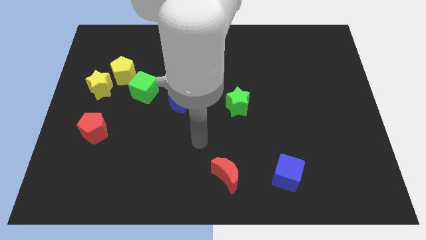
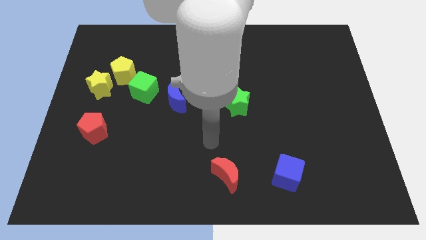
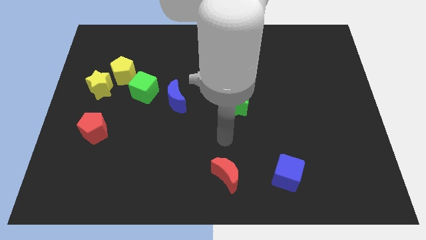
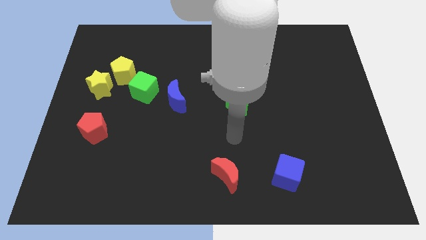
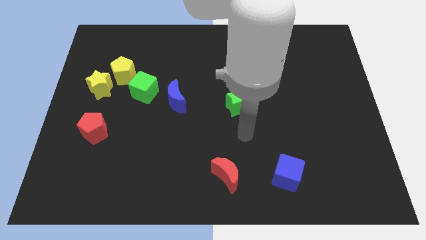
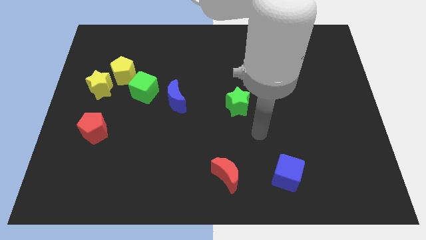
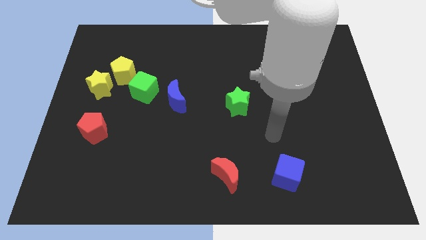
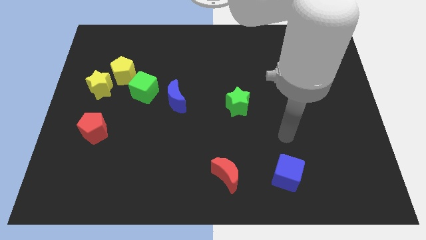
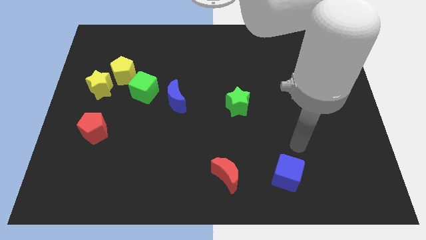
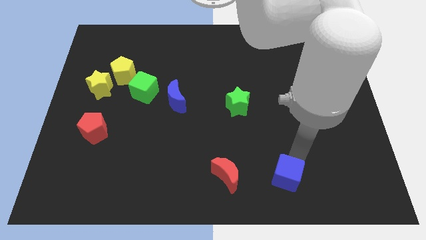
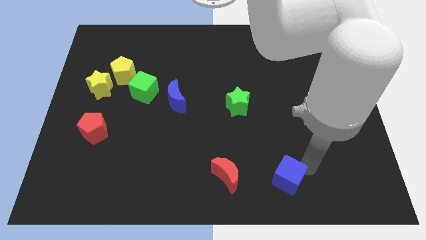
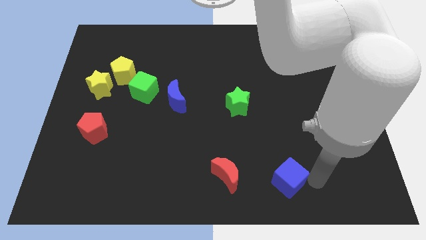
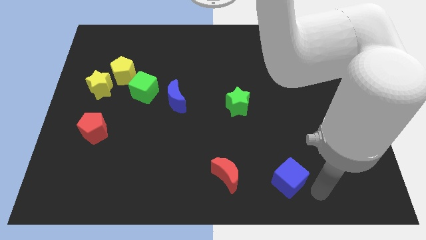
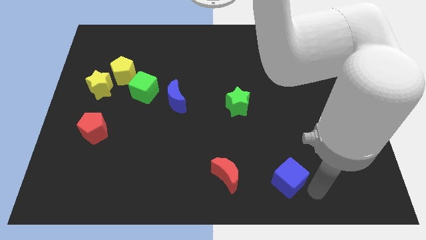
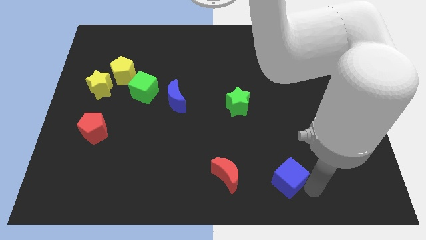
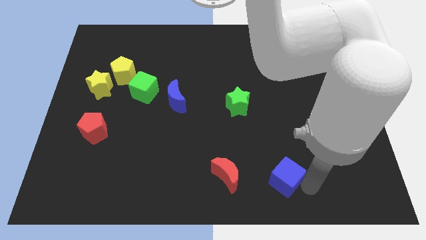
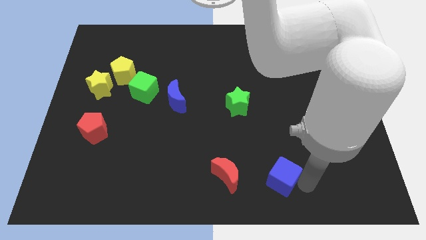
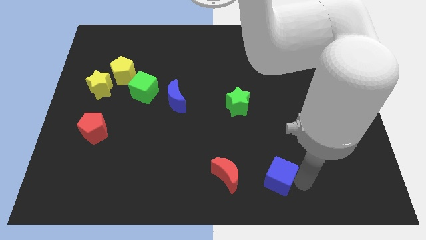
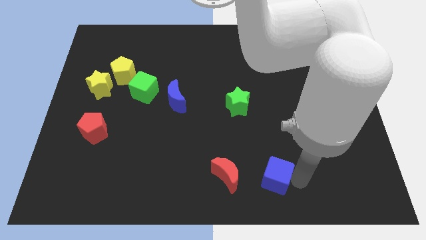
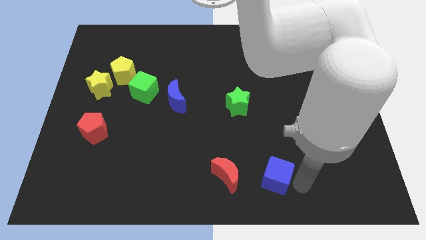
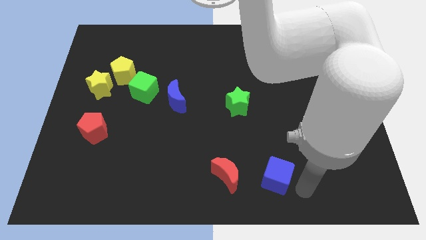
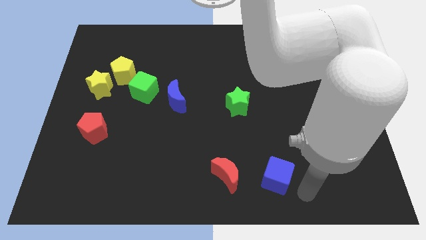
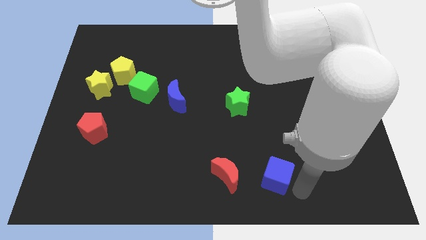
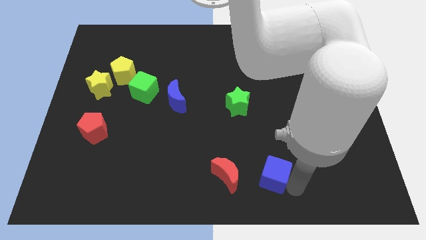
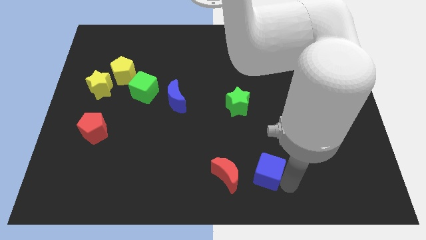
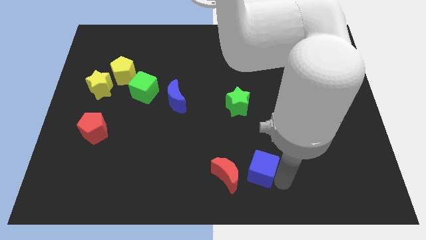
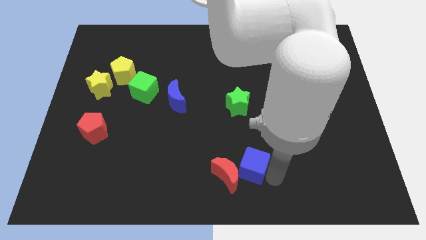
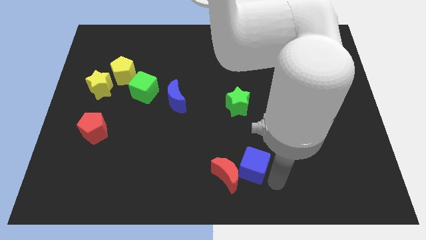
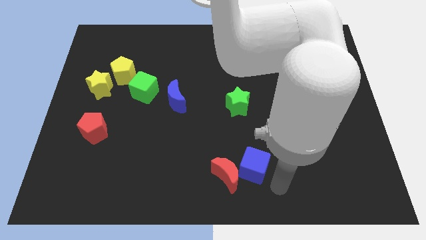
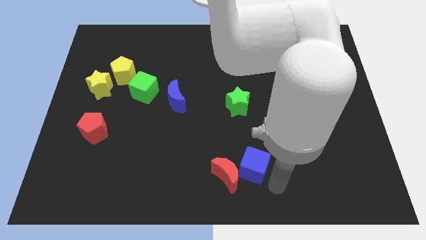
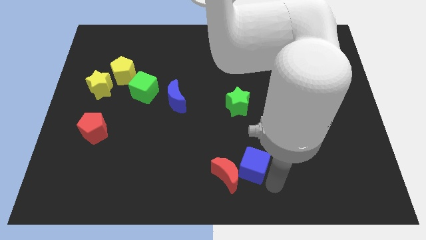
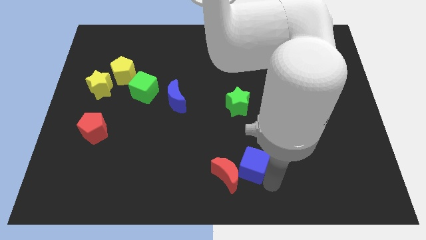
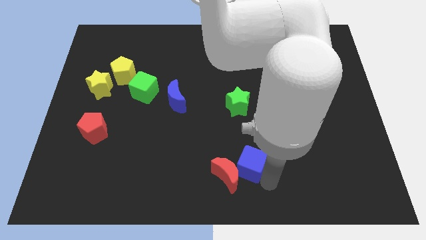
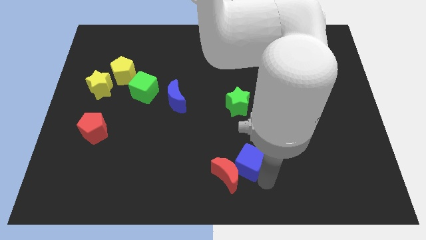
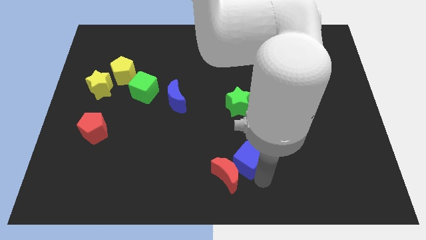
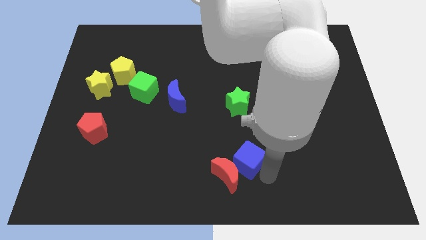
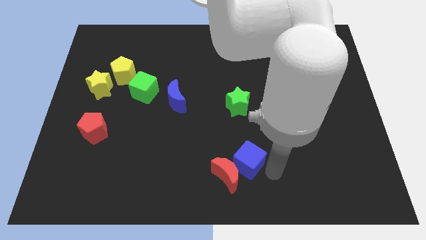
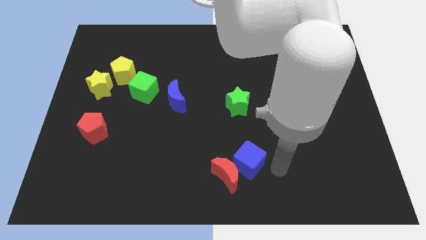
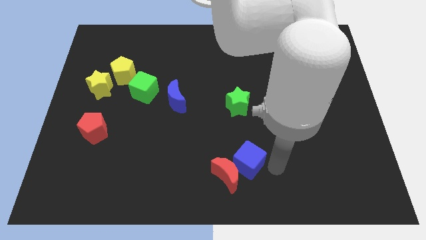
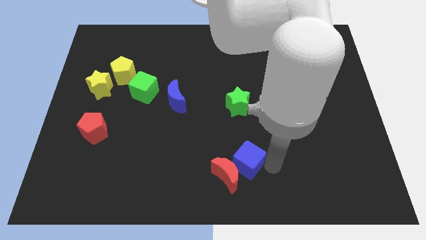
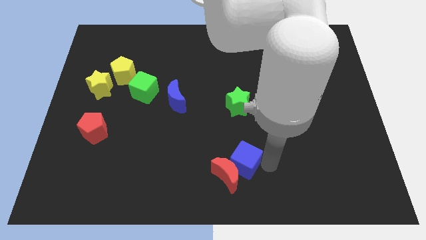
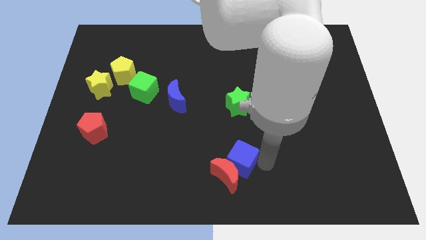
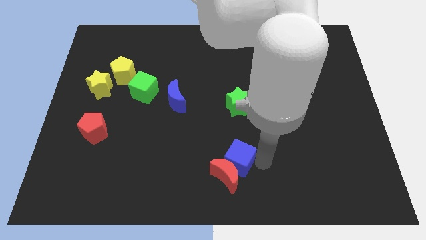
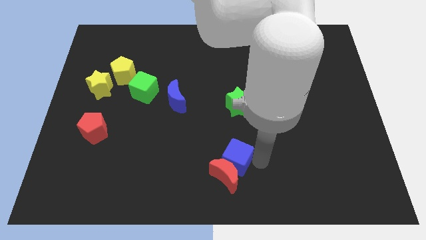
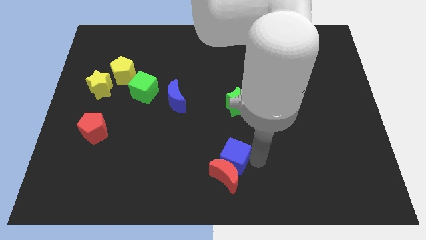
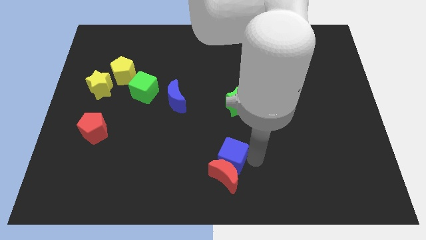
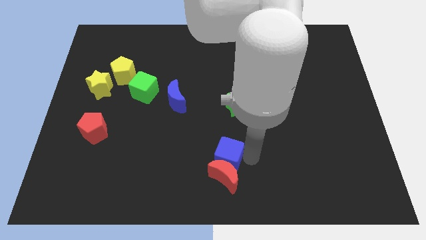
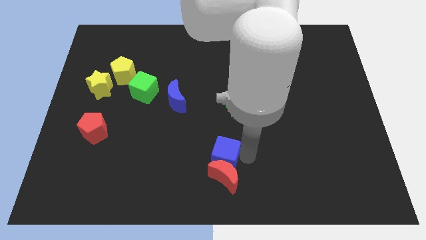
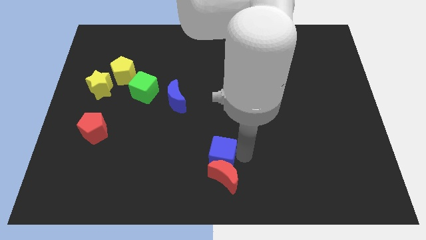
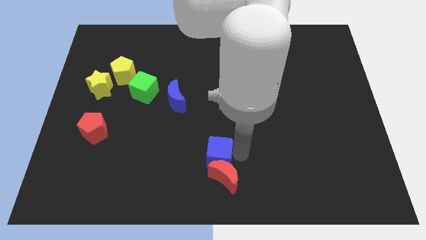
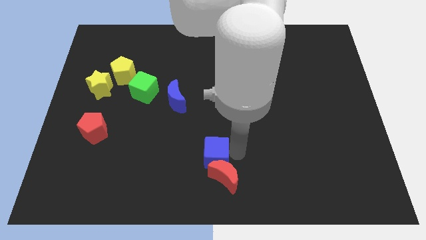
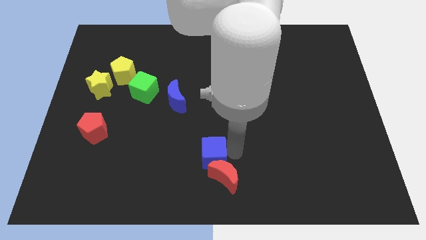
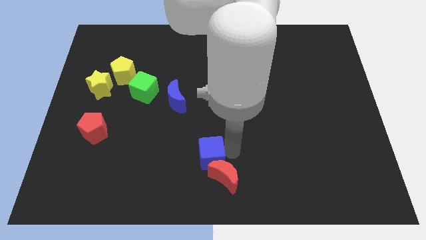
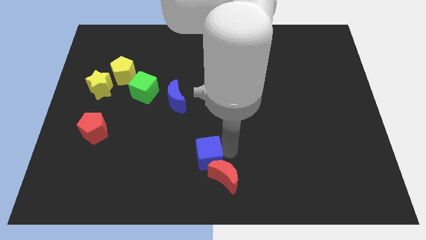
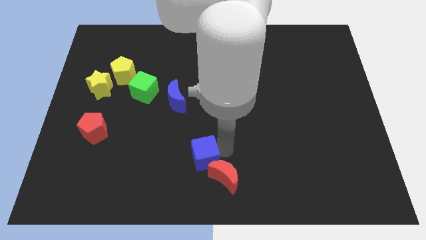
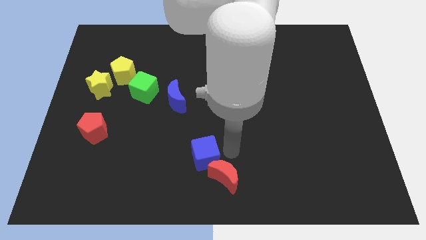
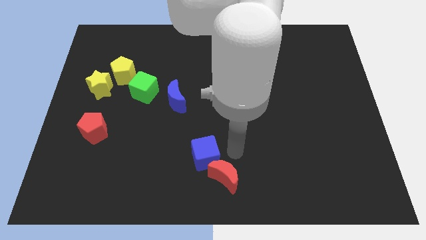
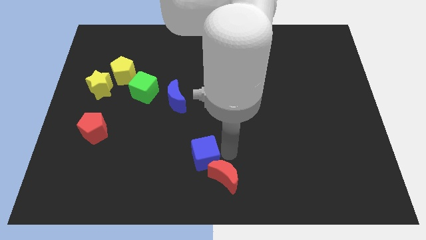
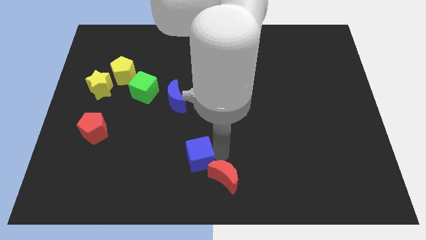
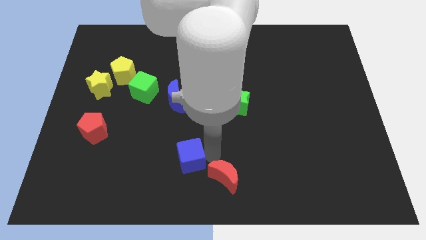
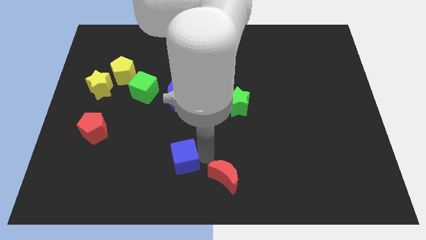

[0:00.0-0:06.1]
slide the blue cube to the left

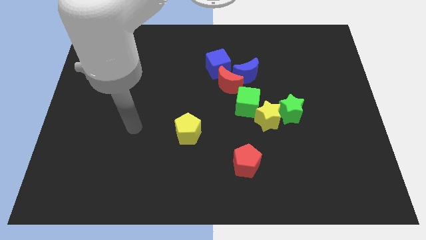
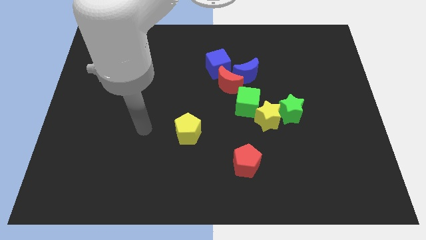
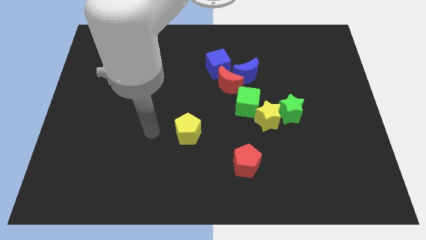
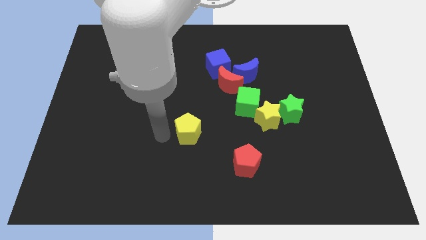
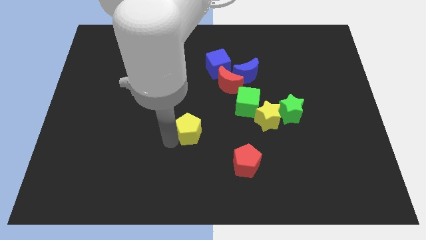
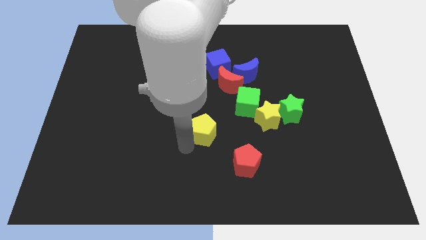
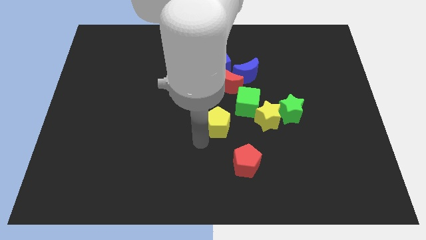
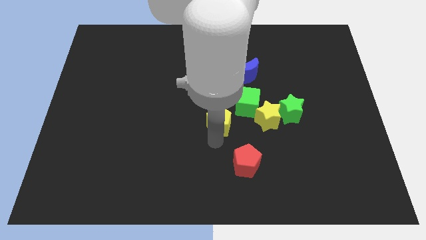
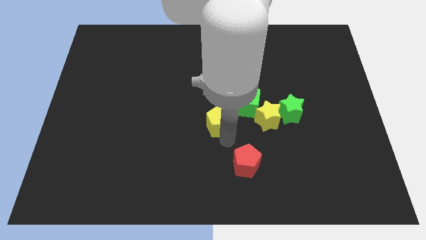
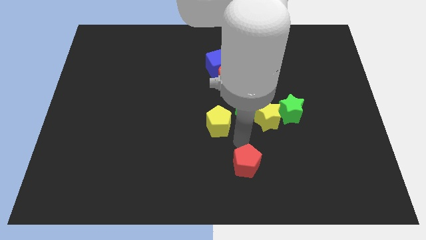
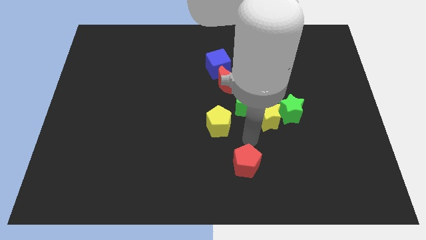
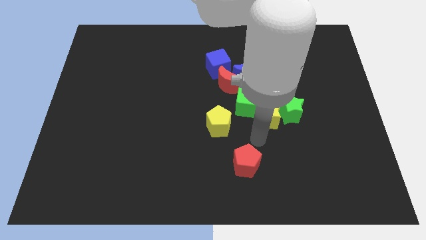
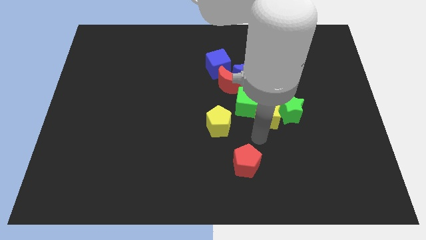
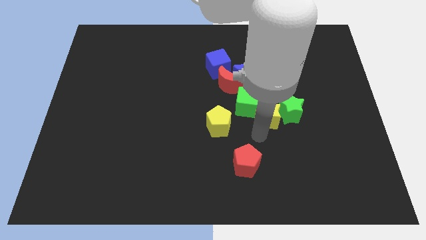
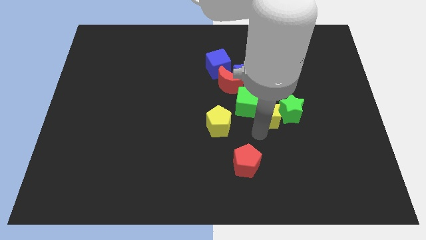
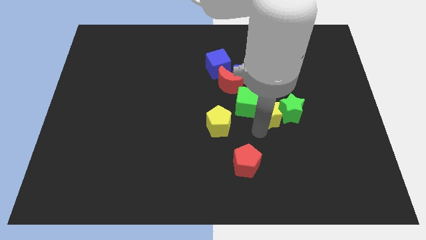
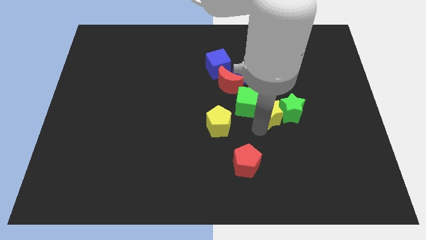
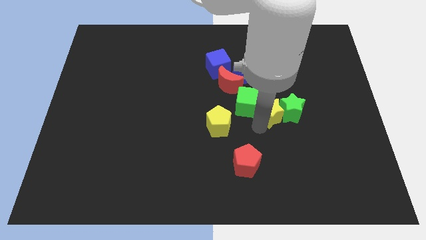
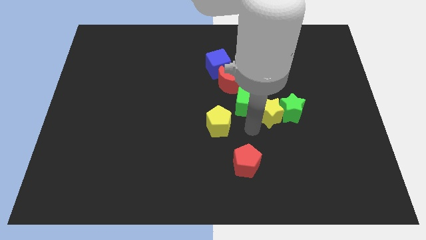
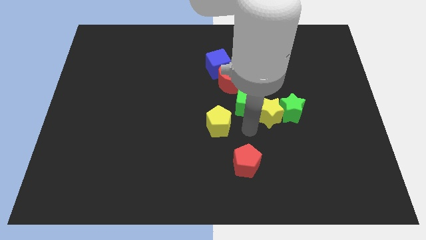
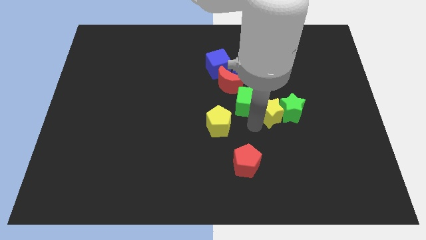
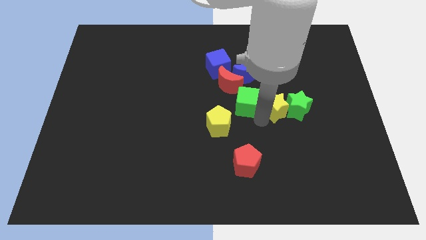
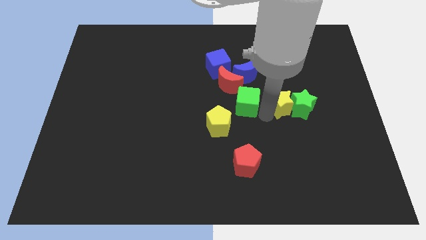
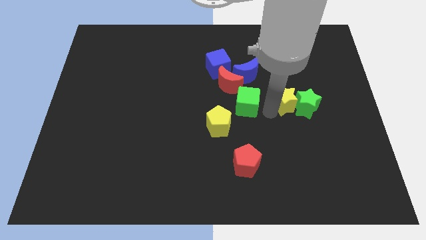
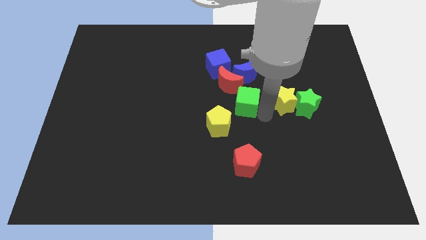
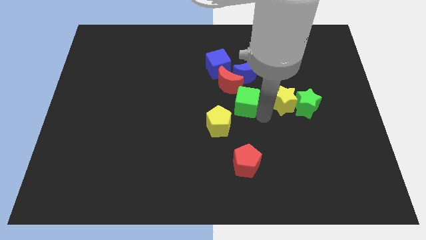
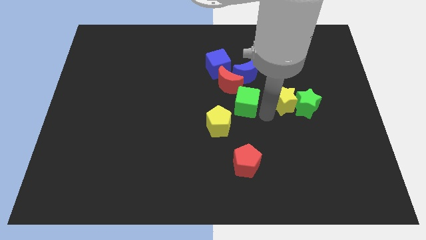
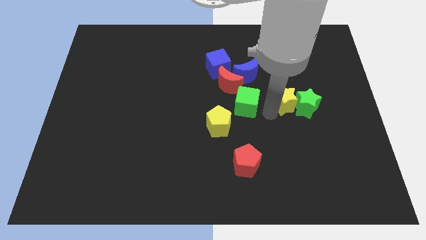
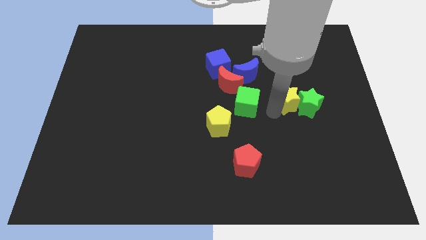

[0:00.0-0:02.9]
slide the yellow star up and to the right a little
